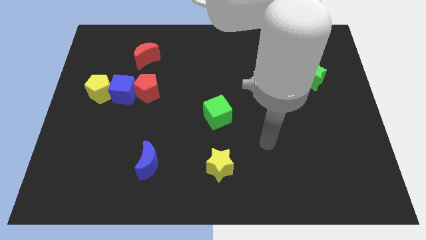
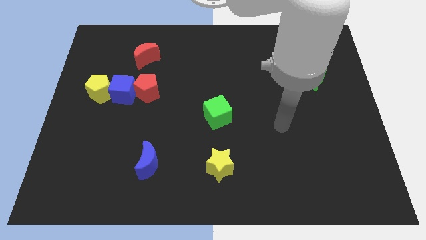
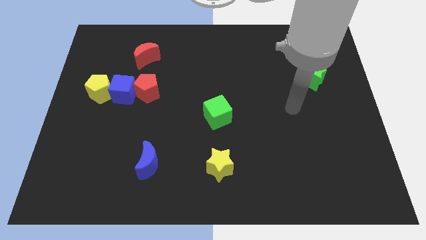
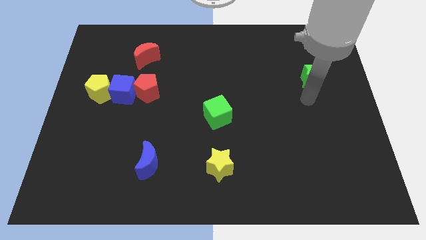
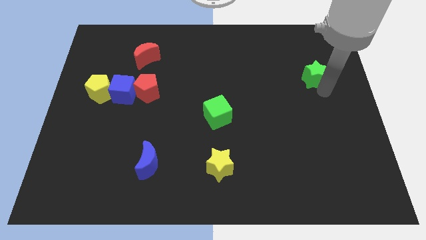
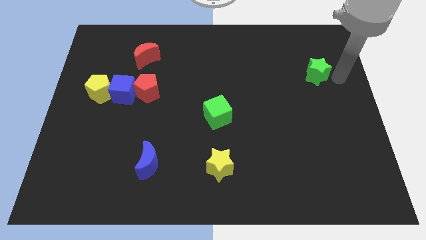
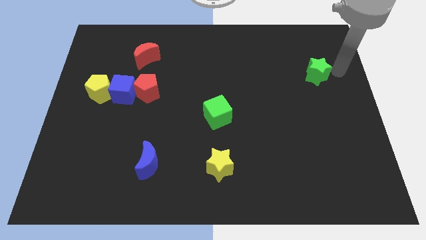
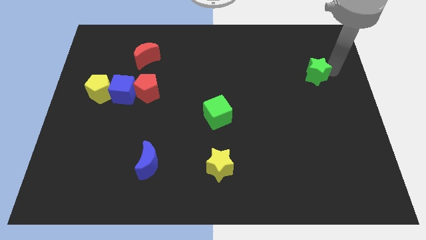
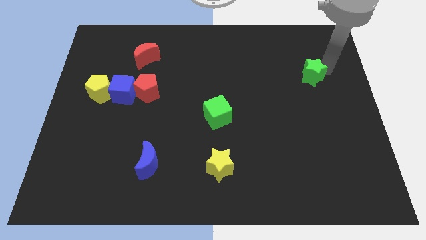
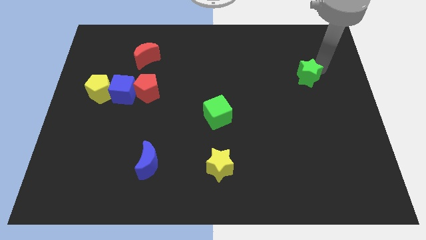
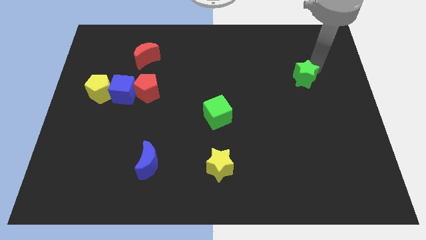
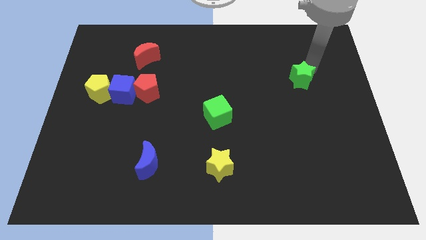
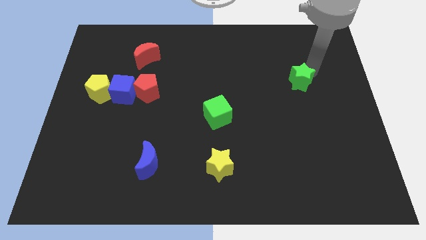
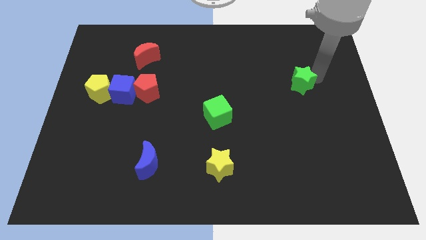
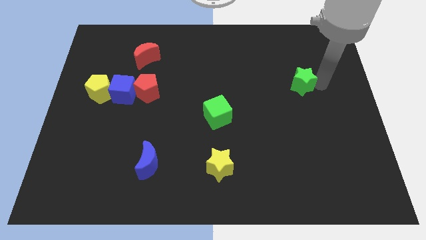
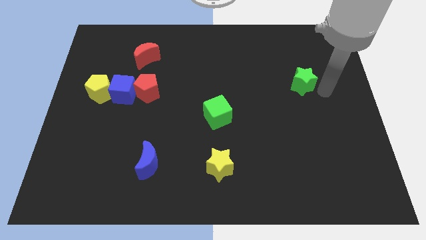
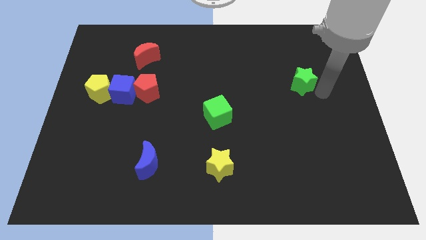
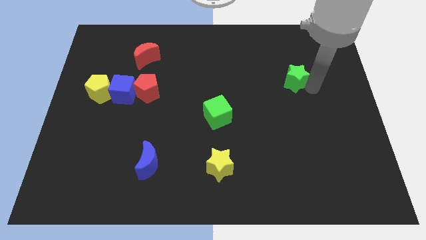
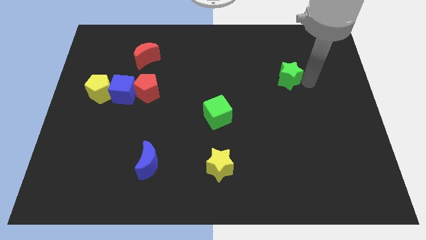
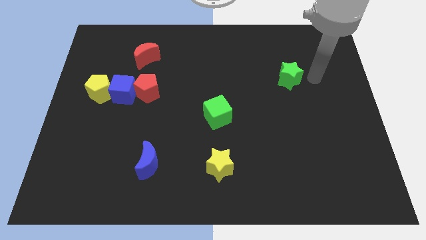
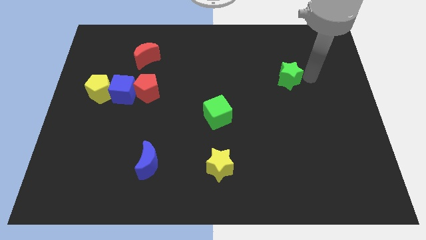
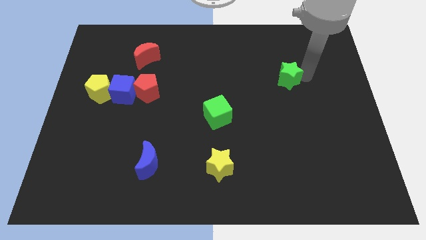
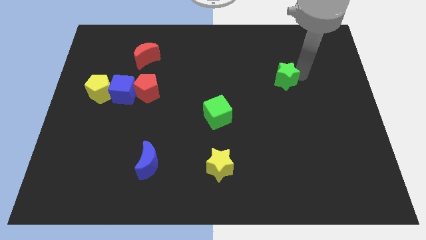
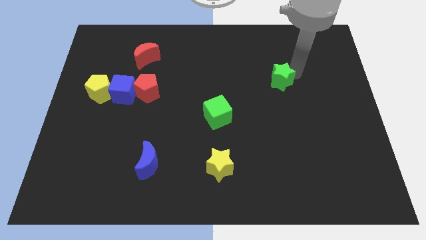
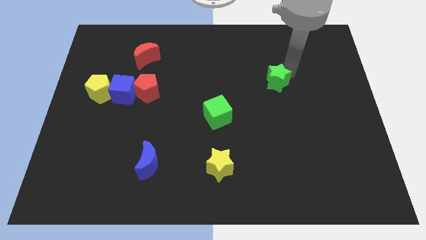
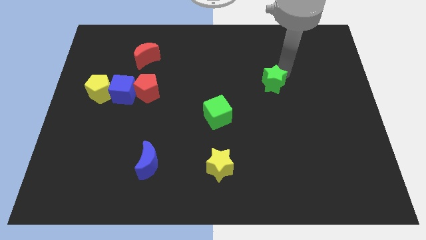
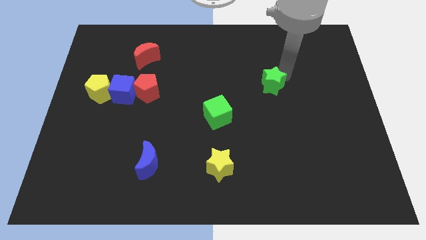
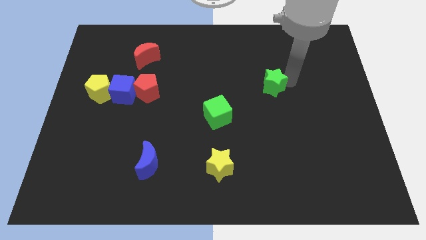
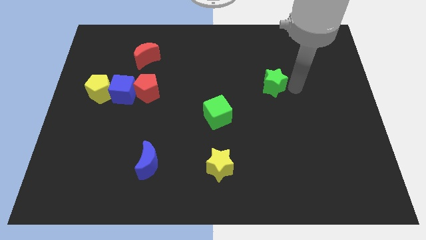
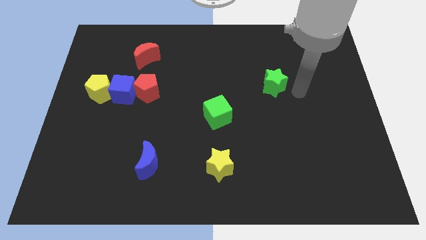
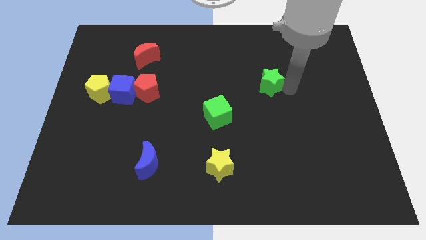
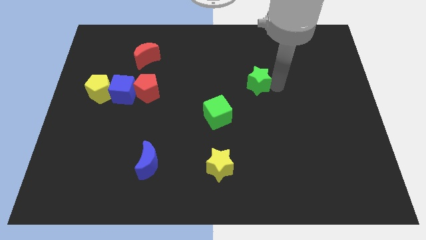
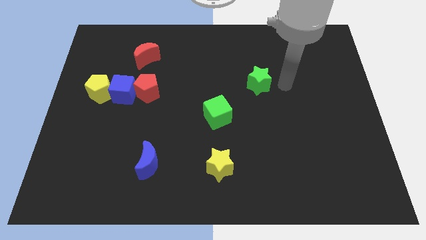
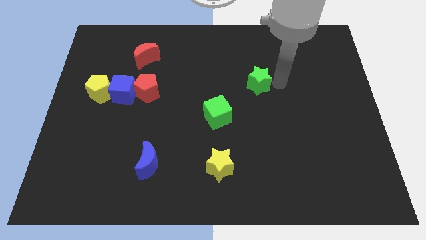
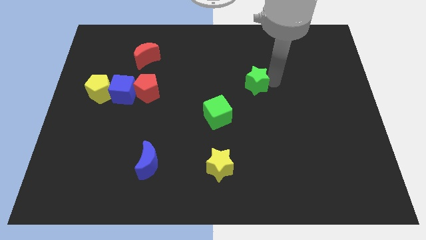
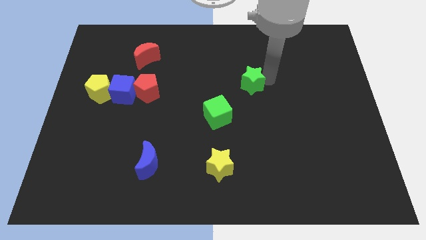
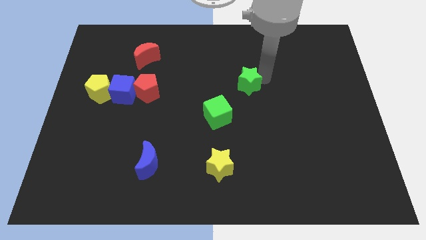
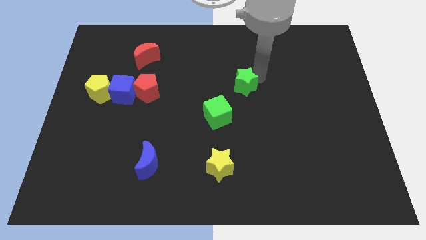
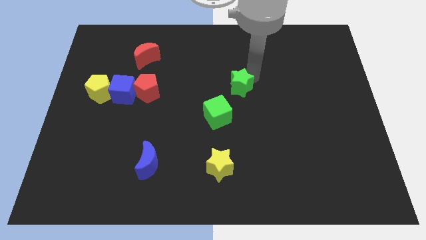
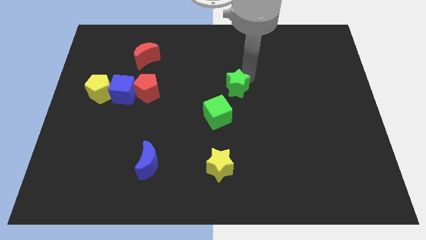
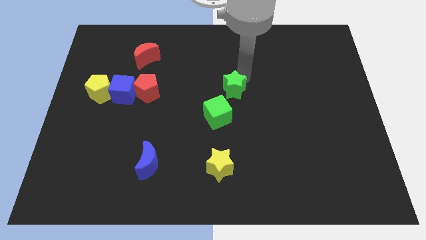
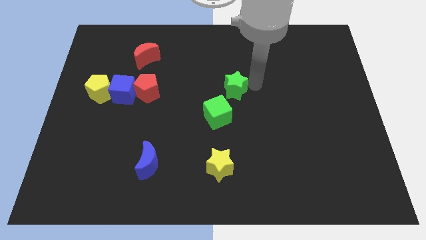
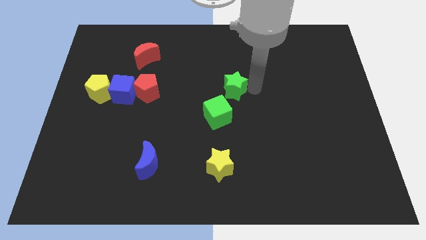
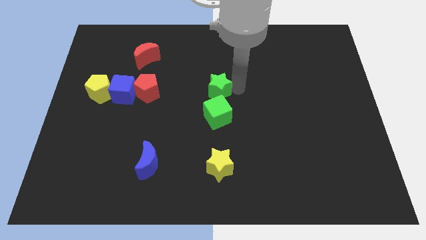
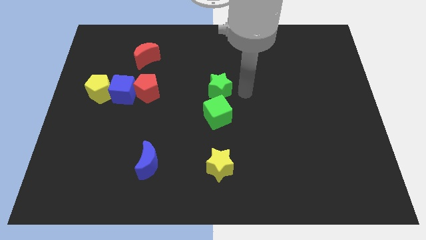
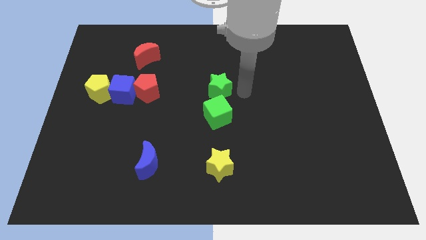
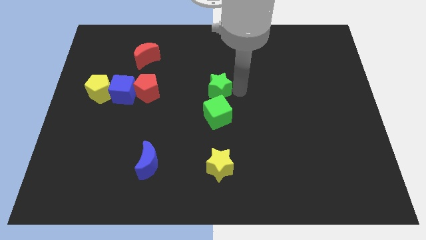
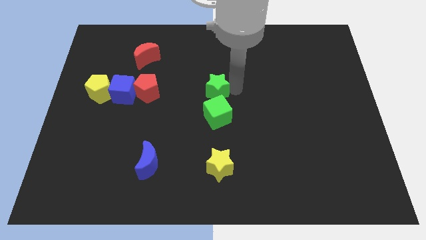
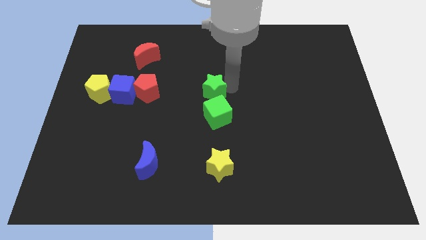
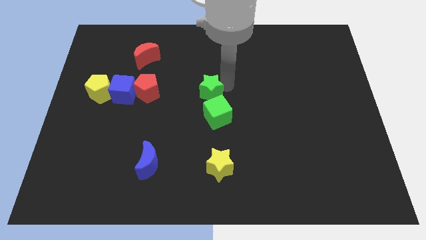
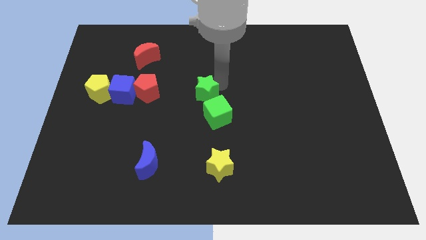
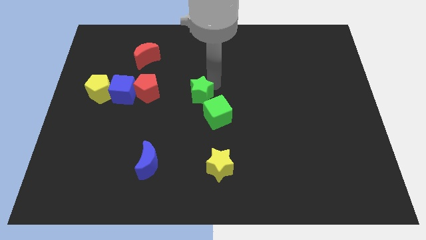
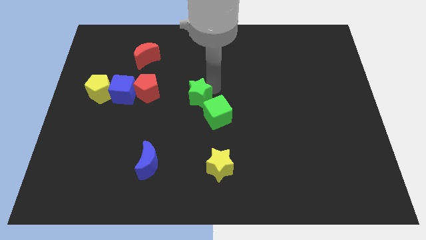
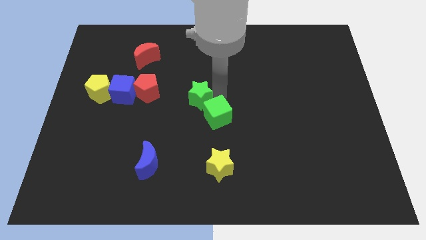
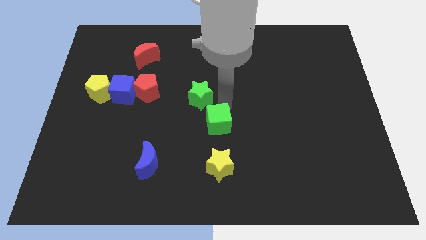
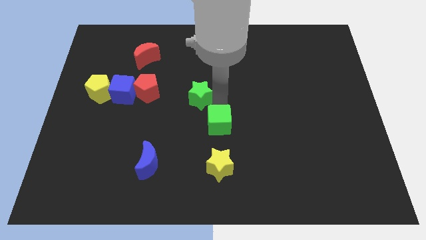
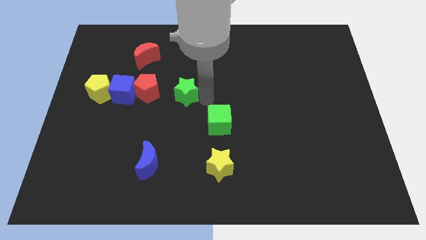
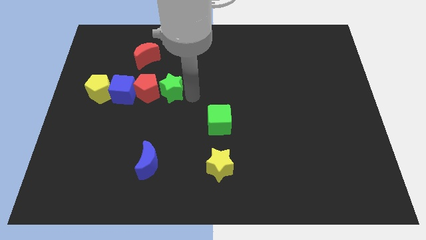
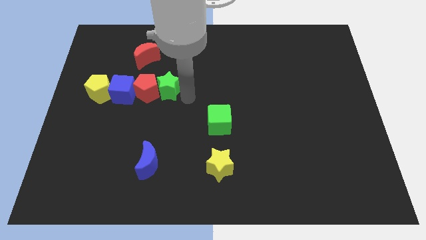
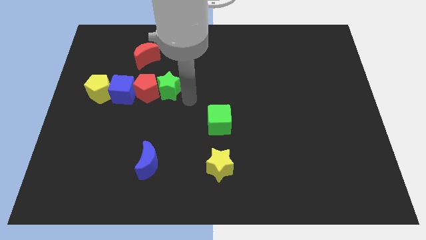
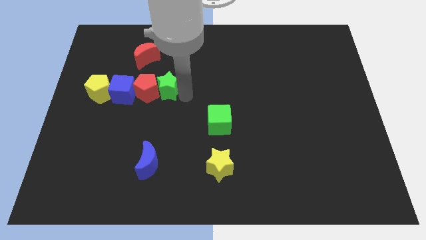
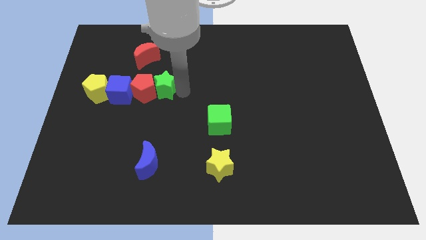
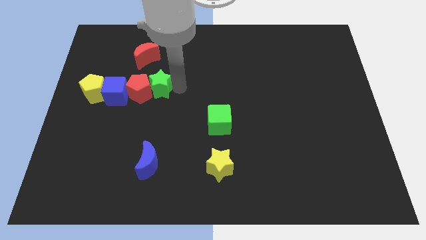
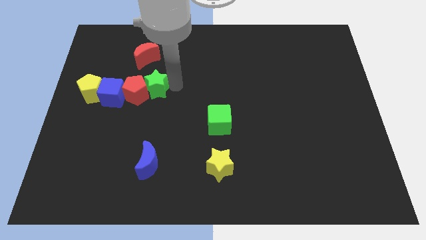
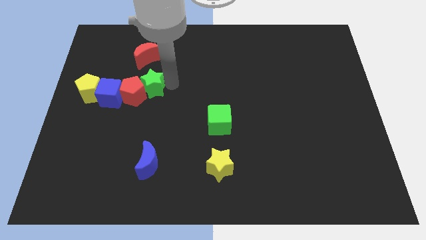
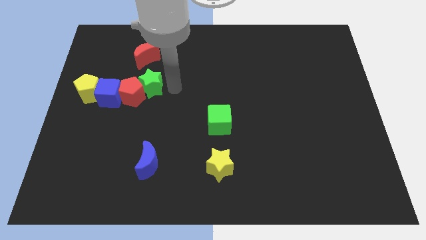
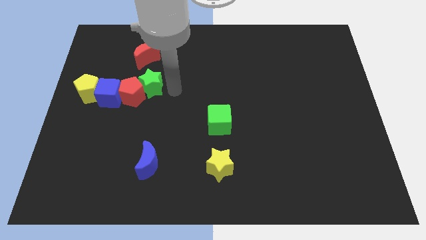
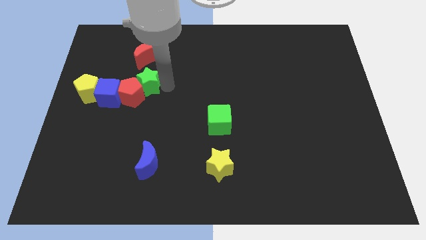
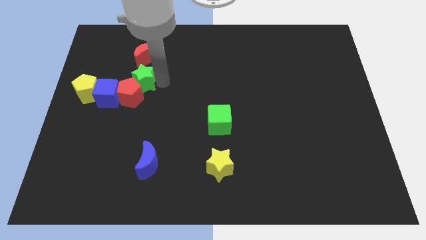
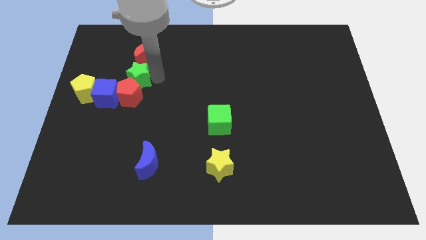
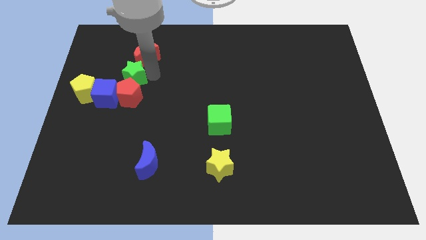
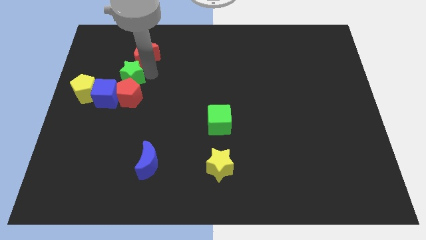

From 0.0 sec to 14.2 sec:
slide the green star diagonally up and to the right of the yellow pentagon
